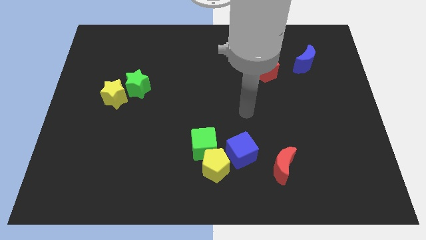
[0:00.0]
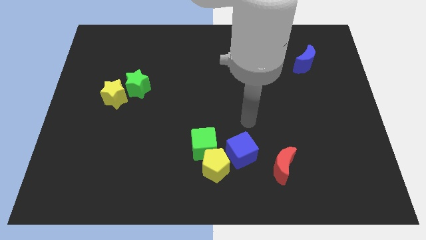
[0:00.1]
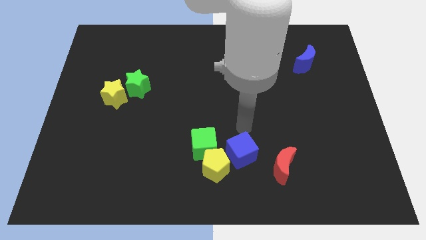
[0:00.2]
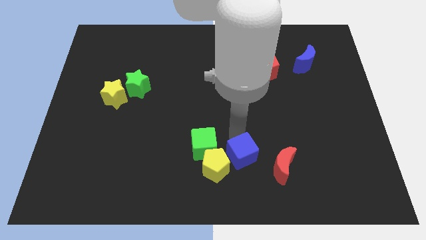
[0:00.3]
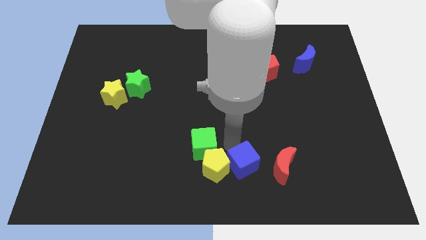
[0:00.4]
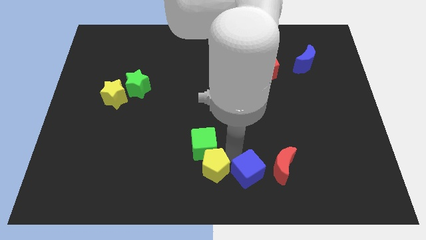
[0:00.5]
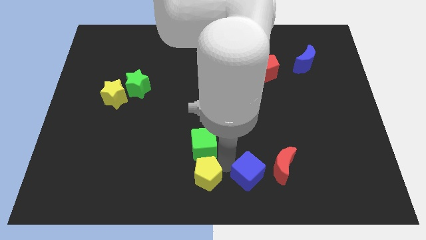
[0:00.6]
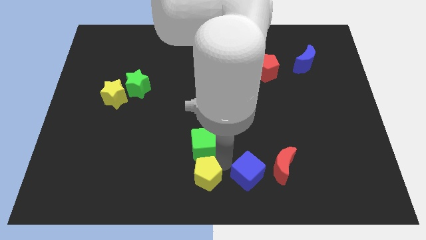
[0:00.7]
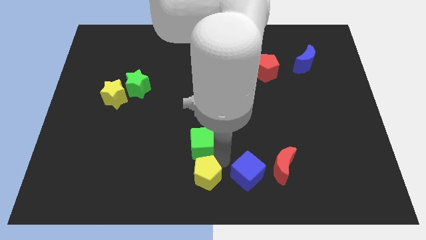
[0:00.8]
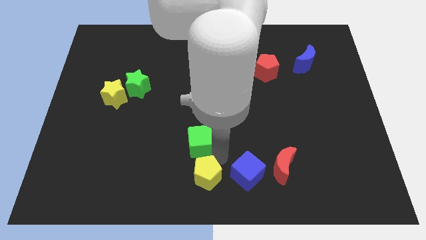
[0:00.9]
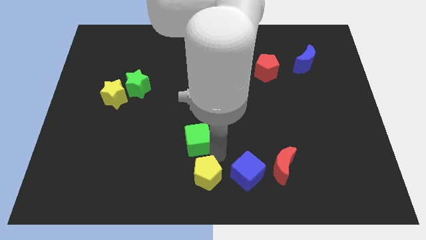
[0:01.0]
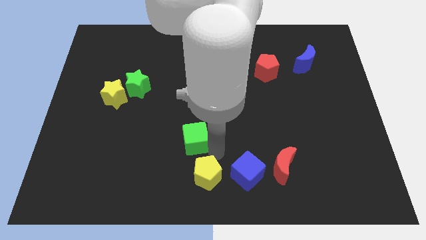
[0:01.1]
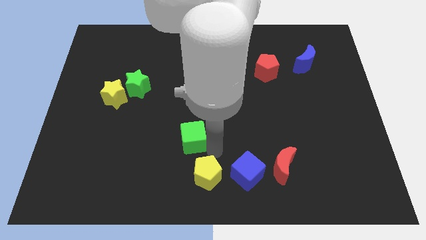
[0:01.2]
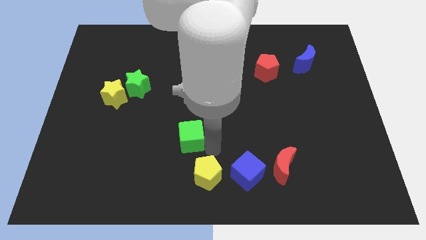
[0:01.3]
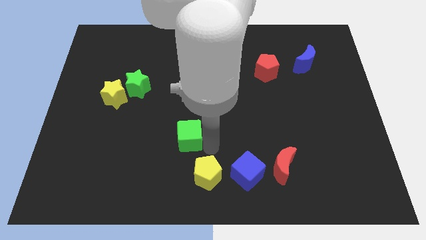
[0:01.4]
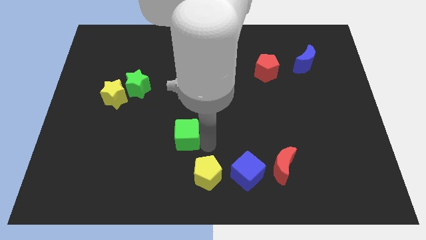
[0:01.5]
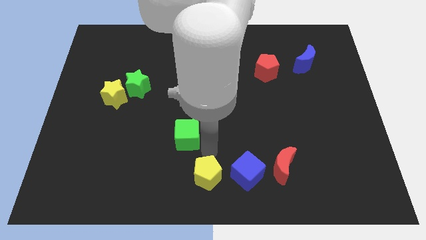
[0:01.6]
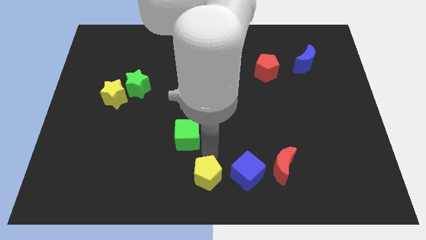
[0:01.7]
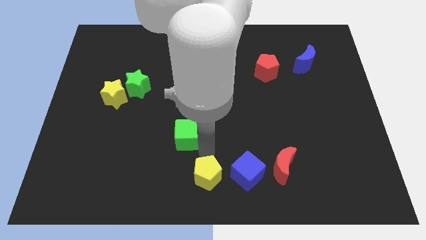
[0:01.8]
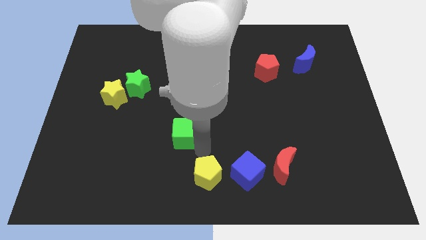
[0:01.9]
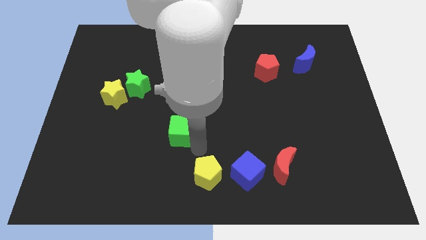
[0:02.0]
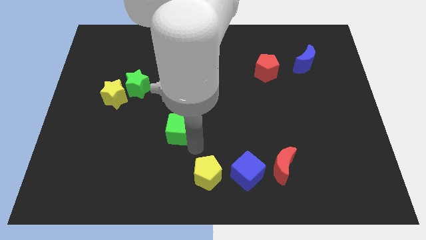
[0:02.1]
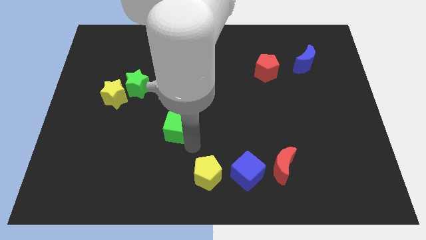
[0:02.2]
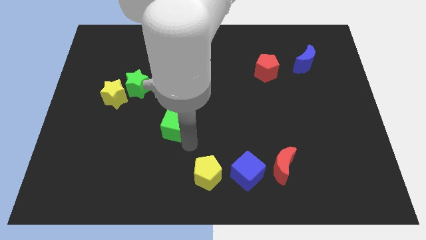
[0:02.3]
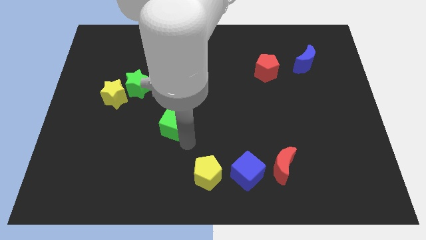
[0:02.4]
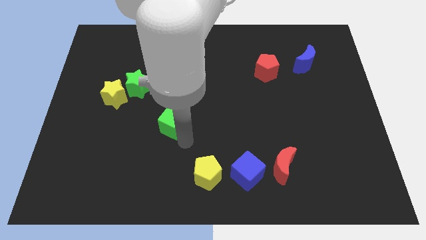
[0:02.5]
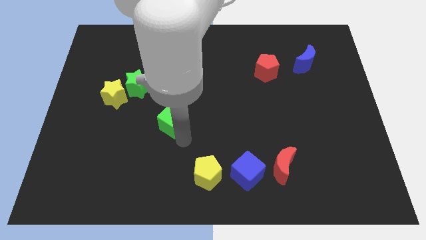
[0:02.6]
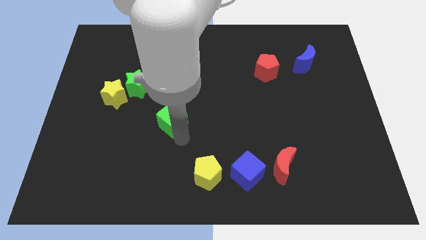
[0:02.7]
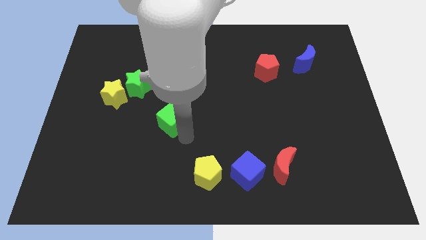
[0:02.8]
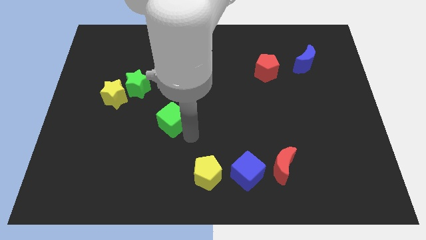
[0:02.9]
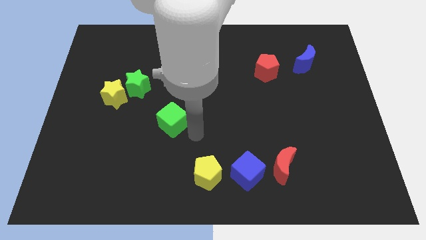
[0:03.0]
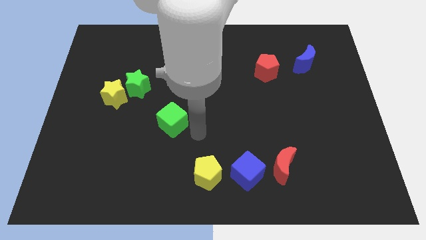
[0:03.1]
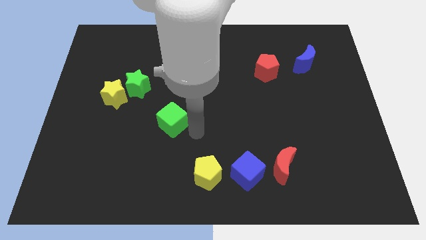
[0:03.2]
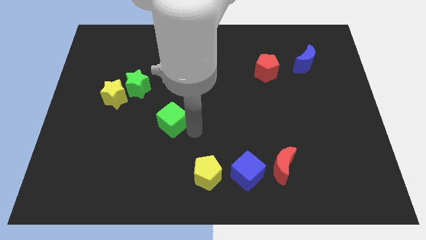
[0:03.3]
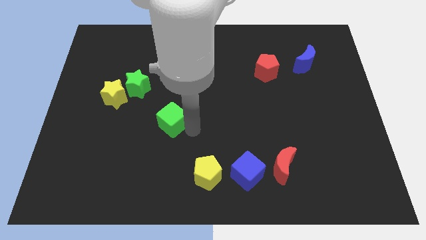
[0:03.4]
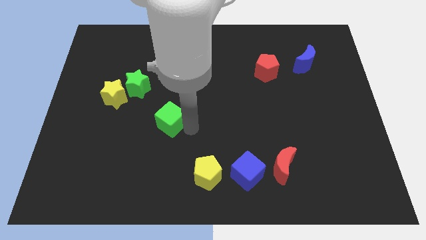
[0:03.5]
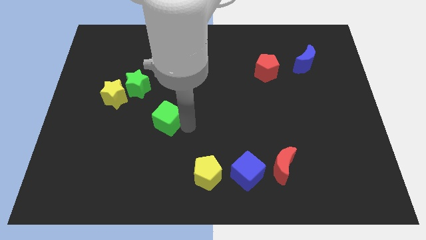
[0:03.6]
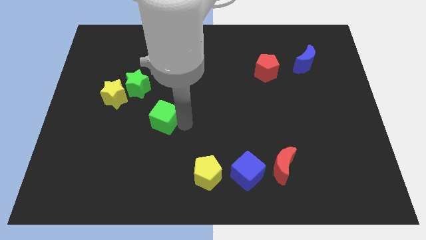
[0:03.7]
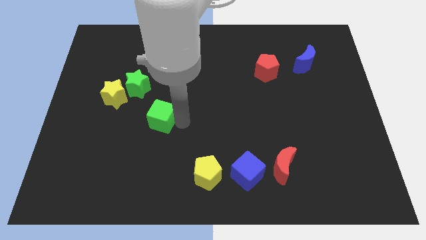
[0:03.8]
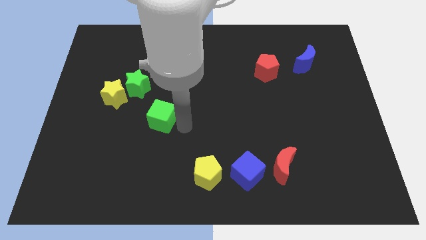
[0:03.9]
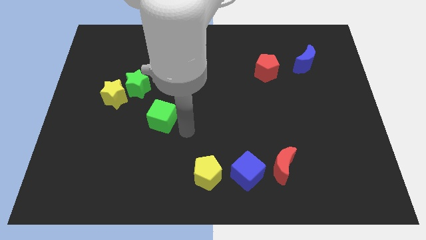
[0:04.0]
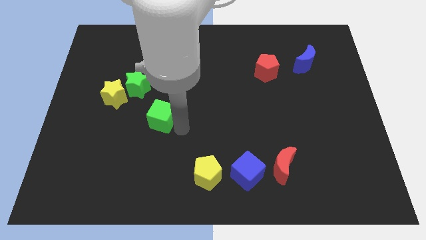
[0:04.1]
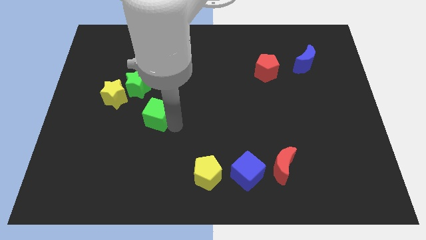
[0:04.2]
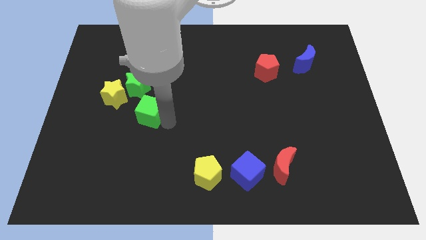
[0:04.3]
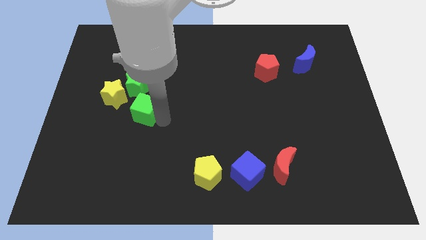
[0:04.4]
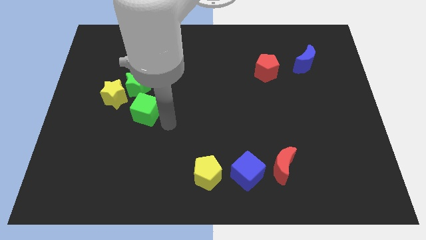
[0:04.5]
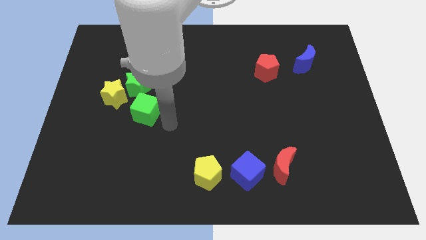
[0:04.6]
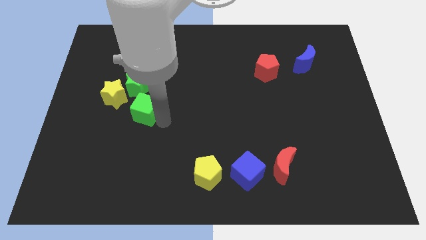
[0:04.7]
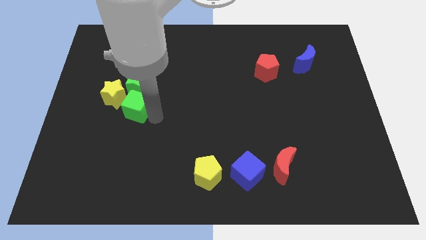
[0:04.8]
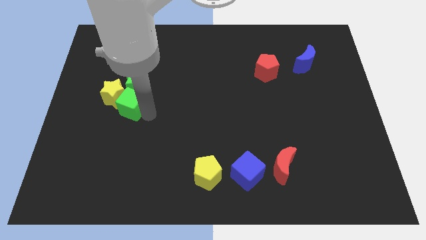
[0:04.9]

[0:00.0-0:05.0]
push the green cube close to the yellow star

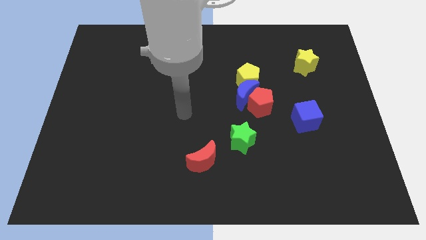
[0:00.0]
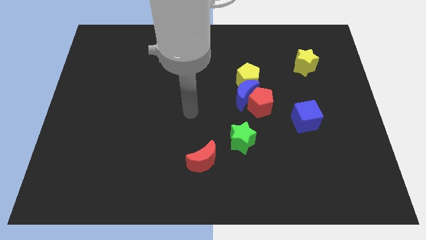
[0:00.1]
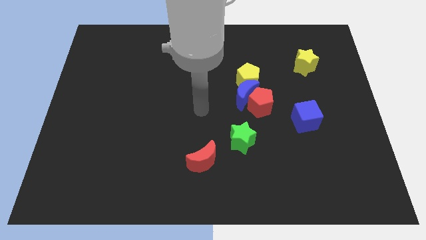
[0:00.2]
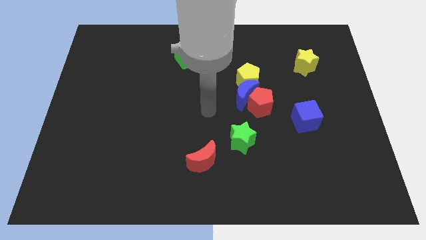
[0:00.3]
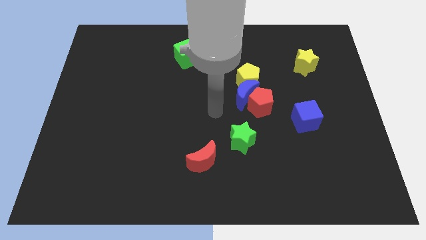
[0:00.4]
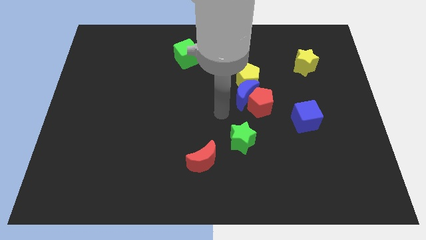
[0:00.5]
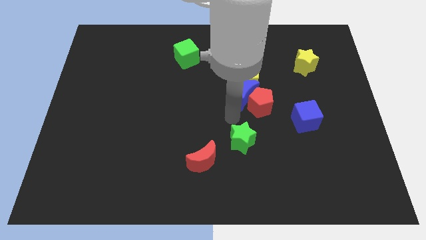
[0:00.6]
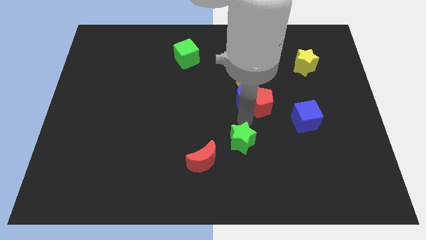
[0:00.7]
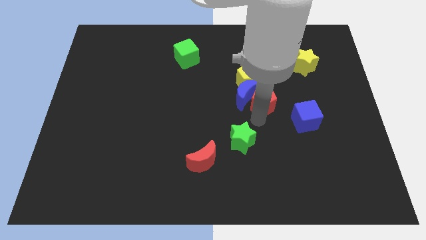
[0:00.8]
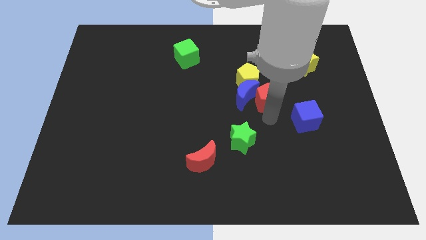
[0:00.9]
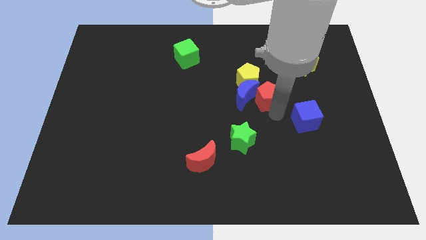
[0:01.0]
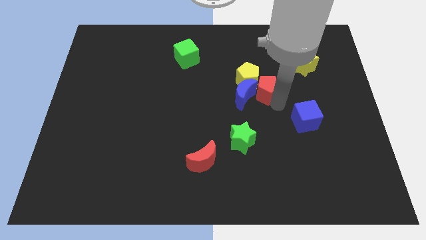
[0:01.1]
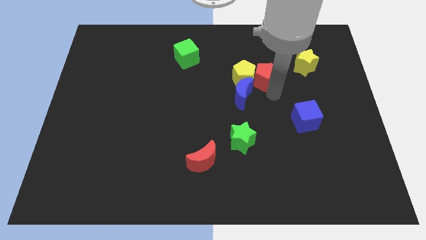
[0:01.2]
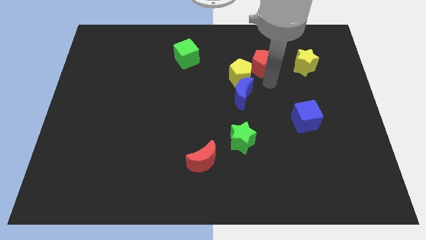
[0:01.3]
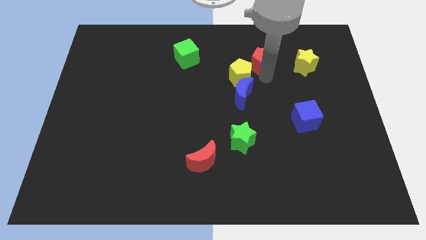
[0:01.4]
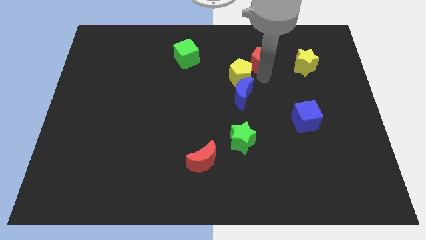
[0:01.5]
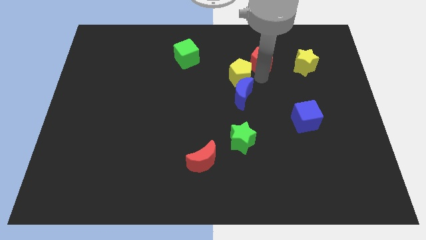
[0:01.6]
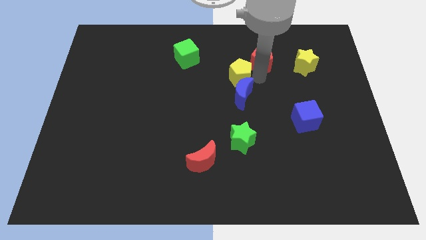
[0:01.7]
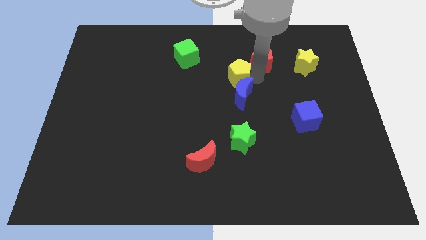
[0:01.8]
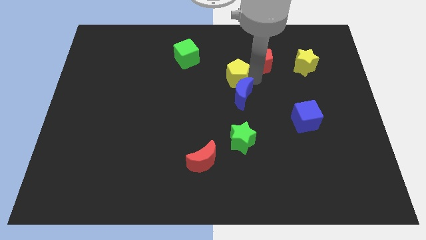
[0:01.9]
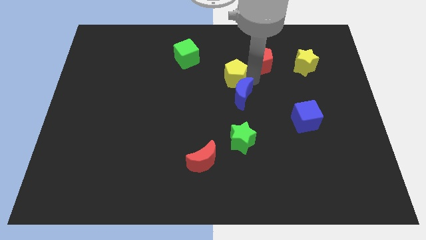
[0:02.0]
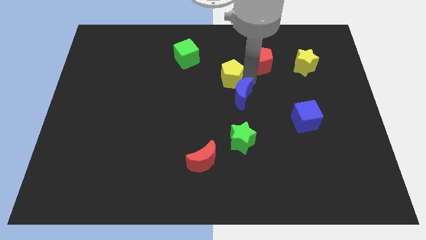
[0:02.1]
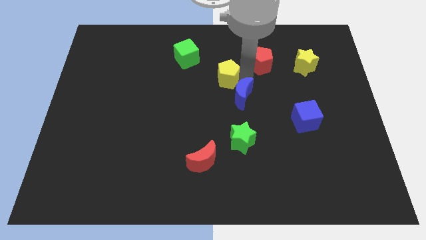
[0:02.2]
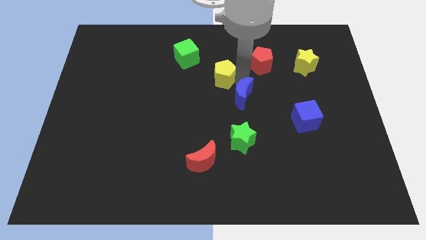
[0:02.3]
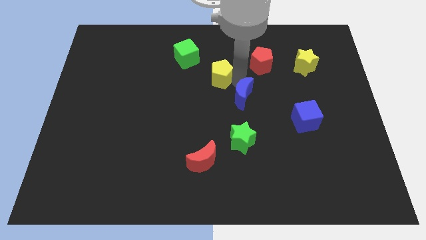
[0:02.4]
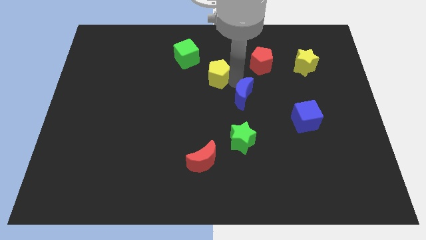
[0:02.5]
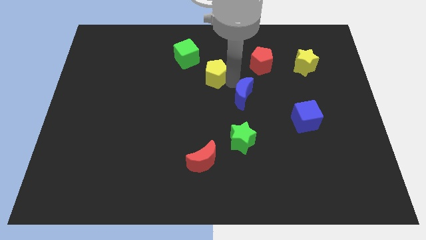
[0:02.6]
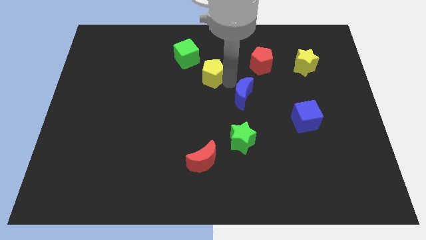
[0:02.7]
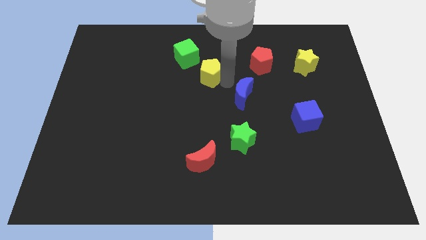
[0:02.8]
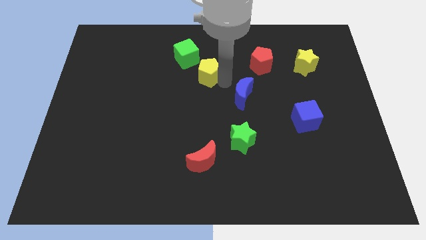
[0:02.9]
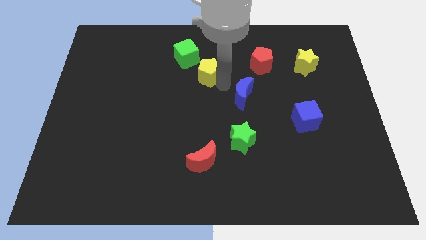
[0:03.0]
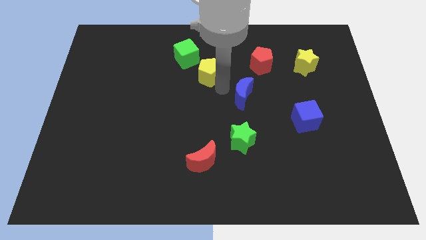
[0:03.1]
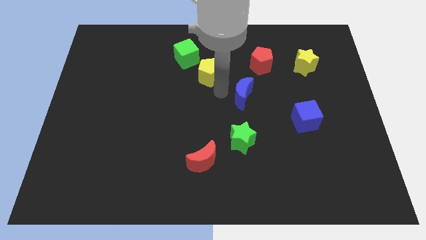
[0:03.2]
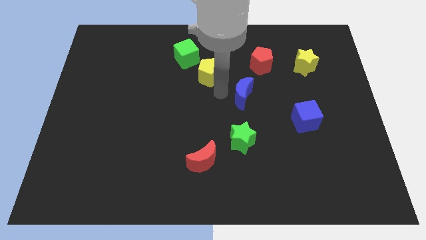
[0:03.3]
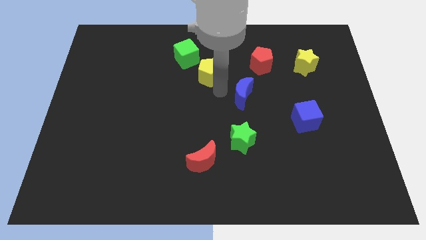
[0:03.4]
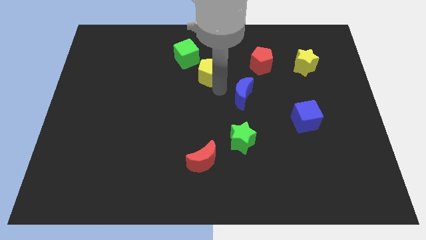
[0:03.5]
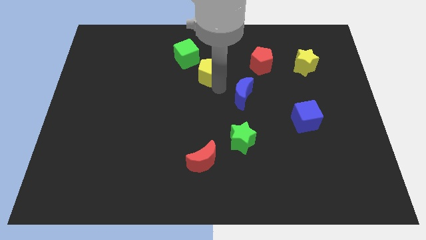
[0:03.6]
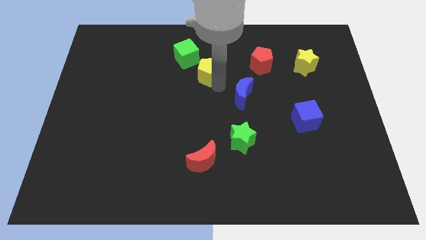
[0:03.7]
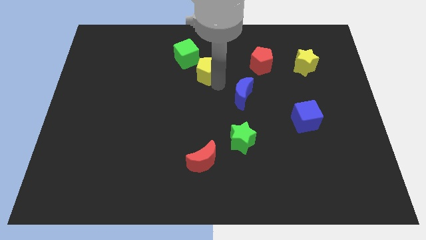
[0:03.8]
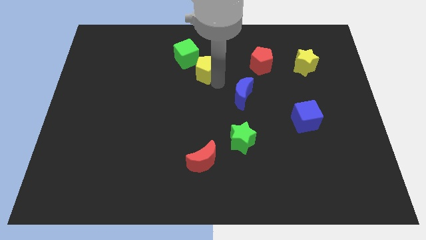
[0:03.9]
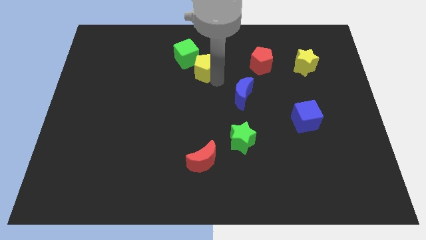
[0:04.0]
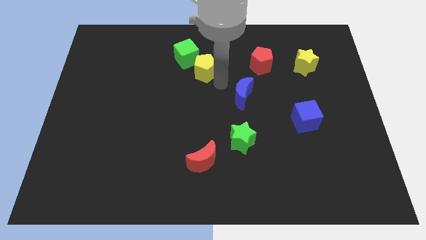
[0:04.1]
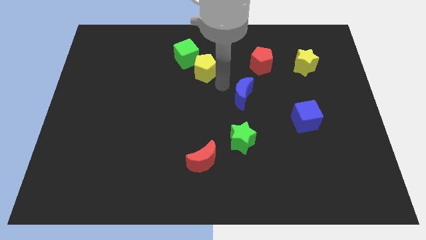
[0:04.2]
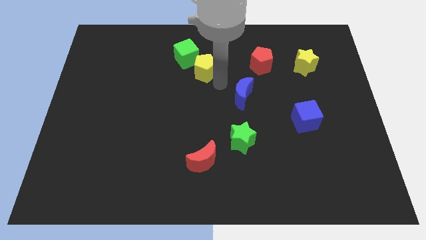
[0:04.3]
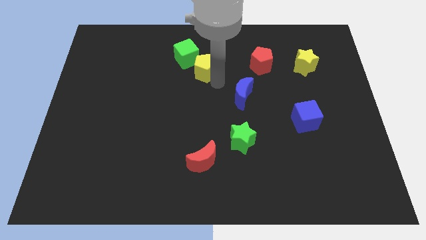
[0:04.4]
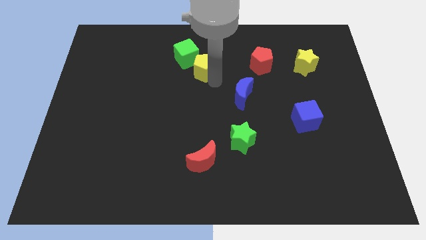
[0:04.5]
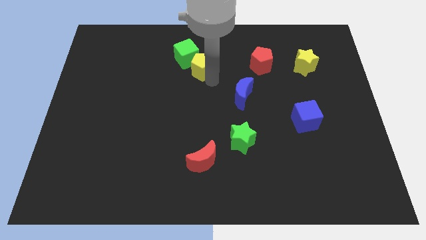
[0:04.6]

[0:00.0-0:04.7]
move the yellow pentagon next to the green cube
